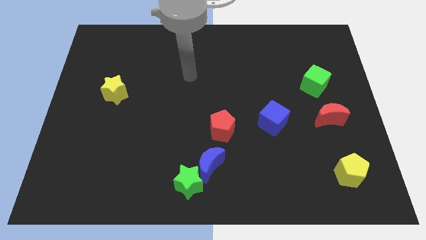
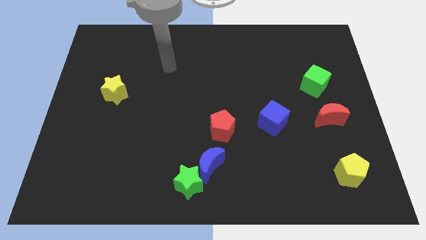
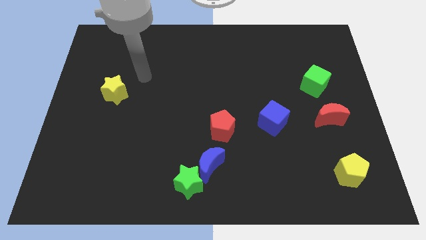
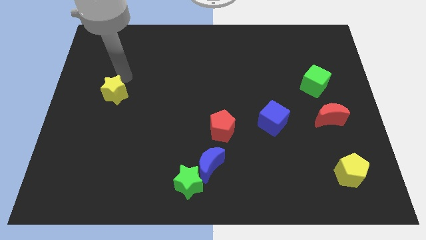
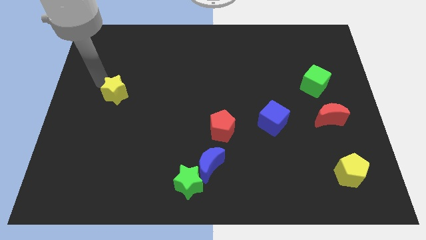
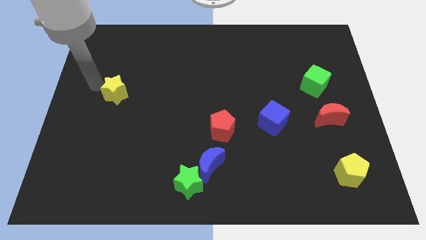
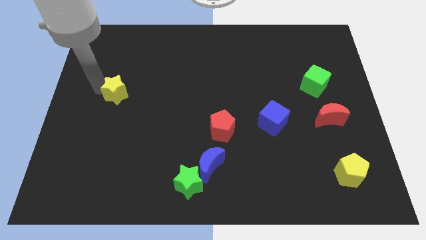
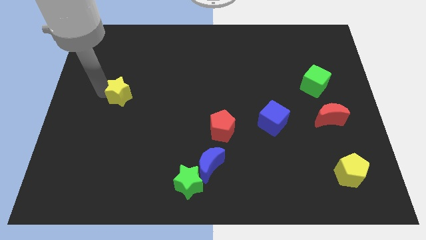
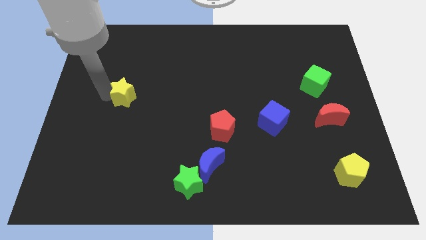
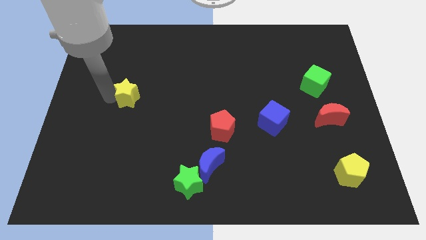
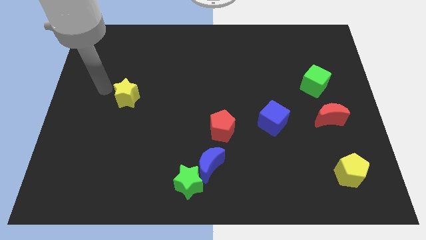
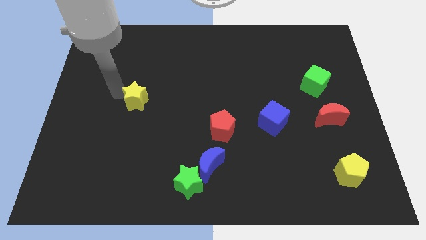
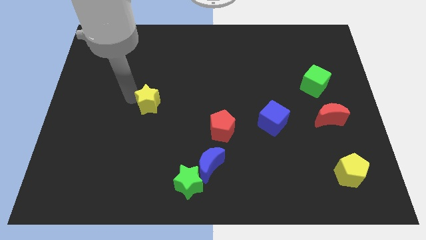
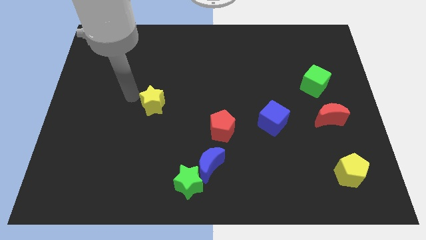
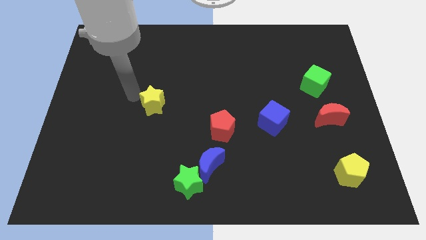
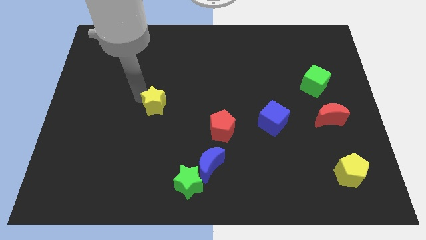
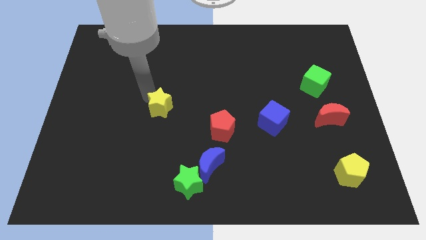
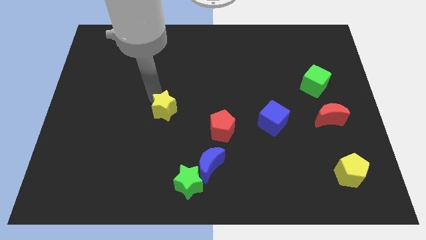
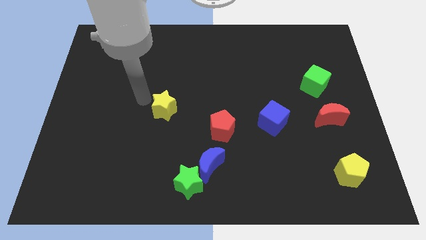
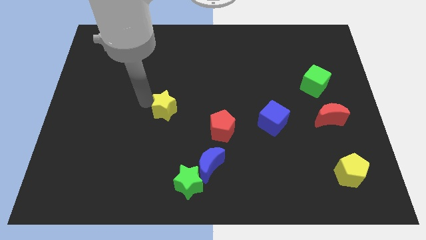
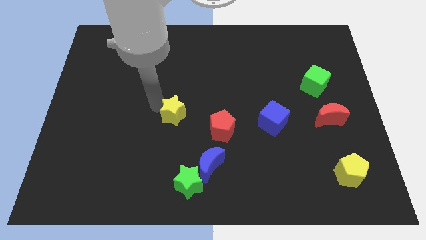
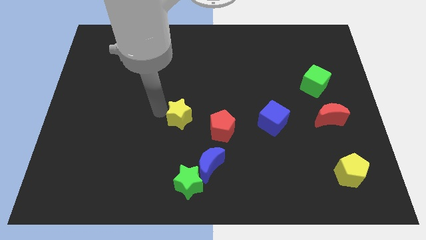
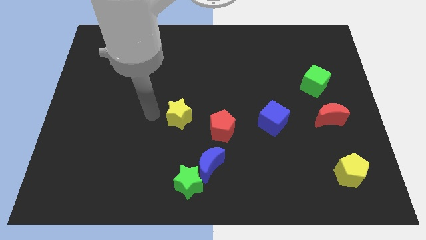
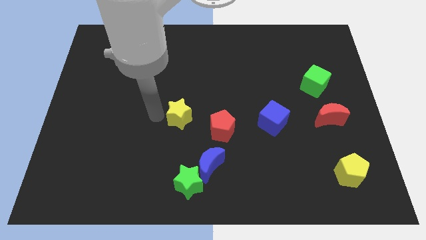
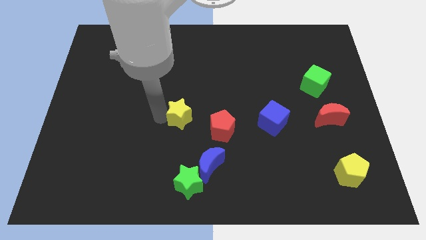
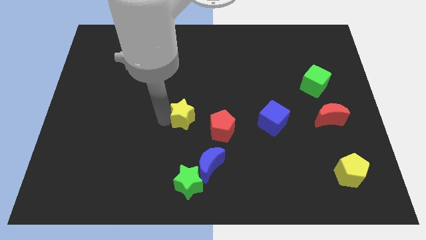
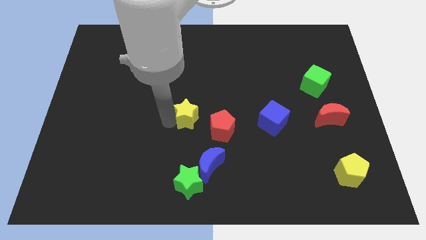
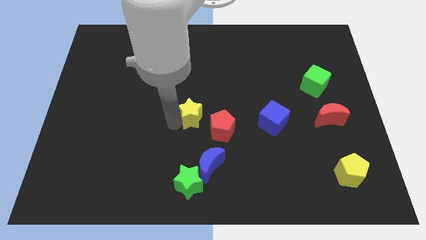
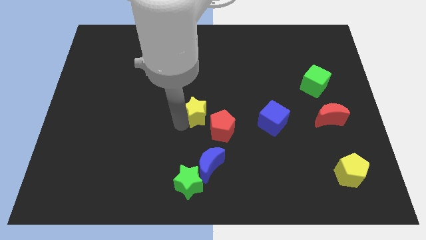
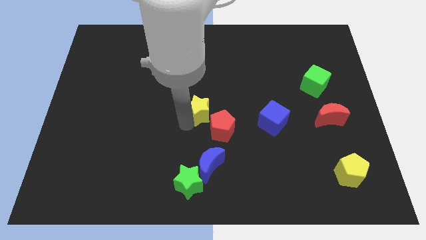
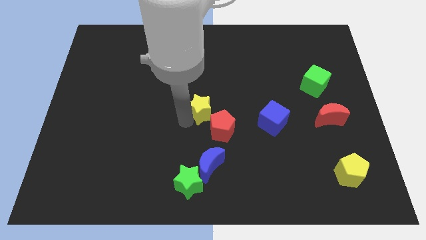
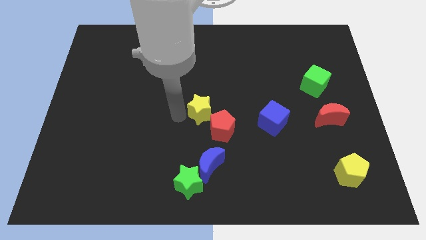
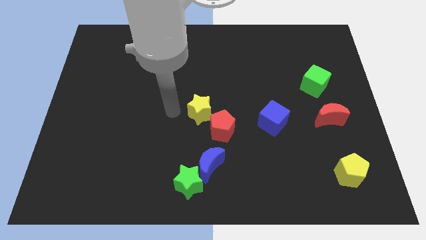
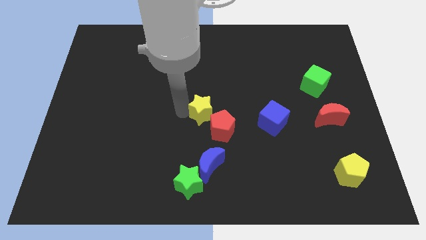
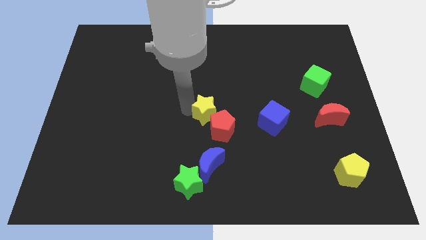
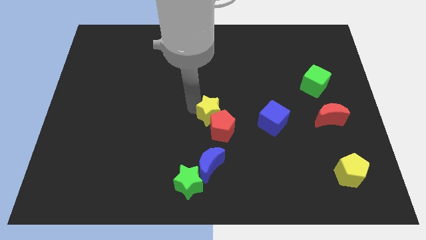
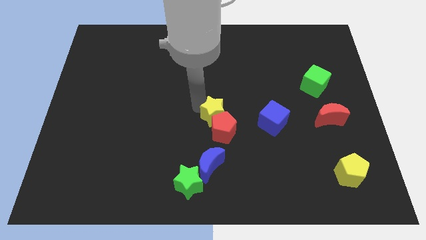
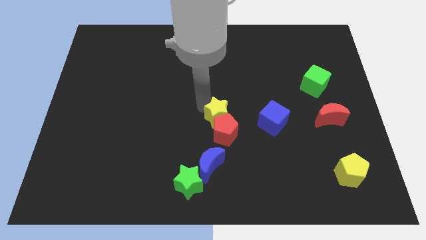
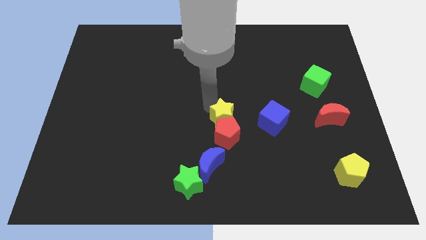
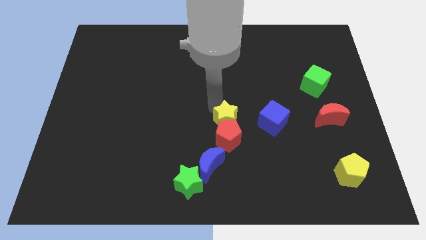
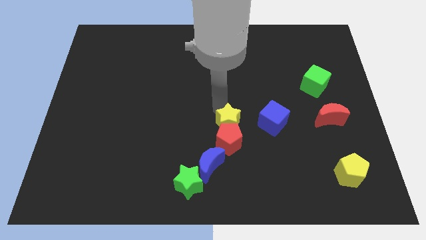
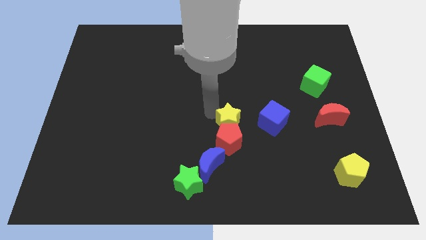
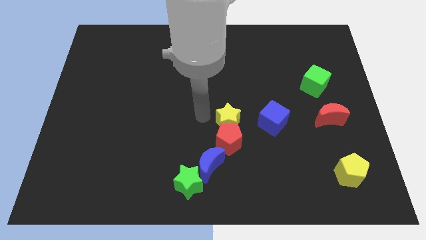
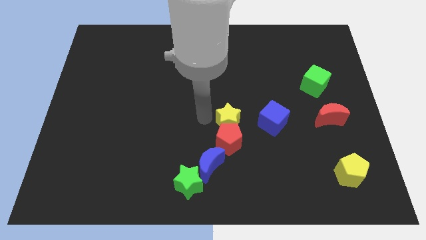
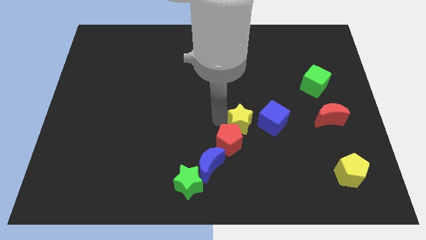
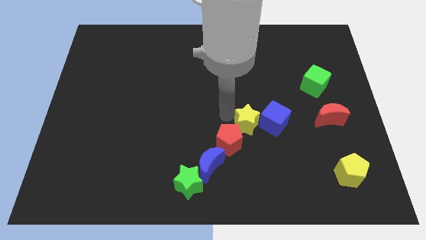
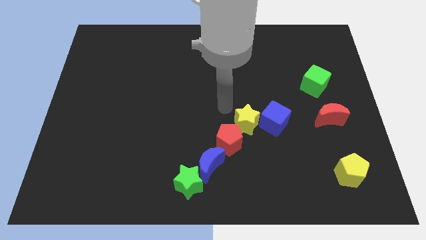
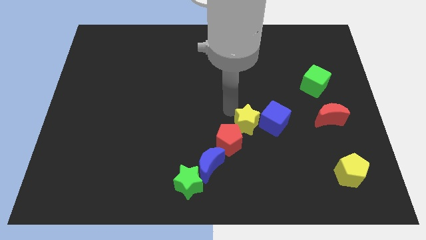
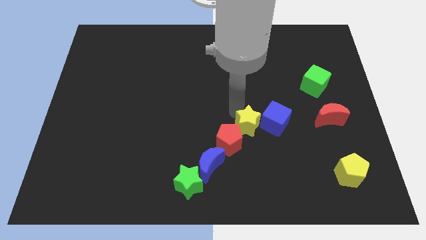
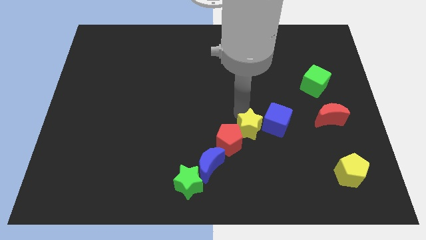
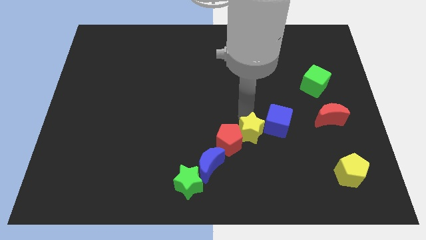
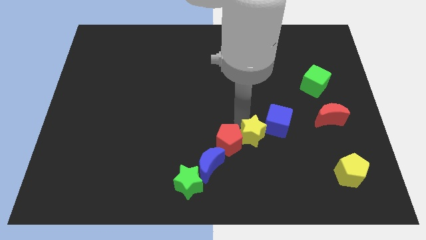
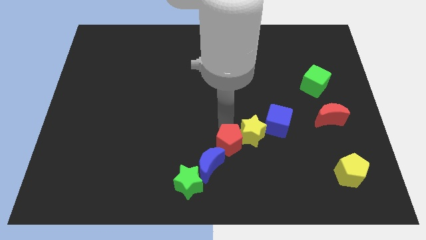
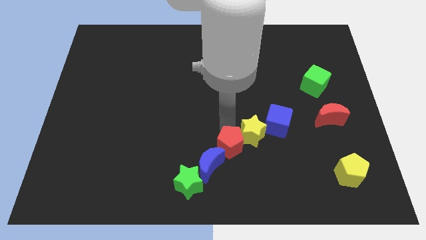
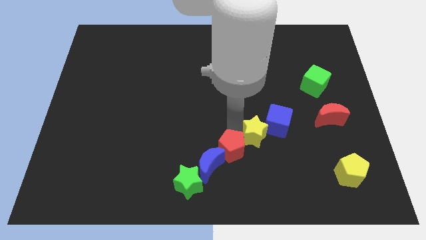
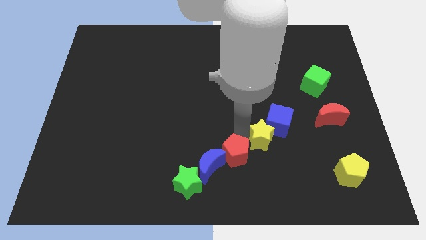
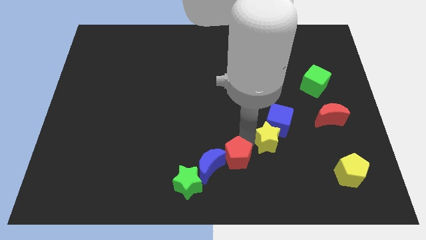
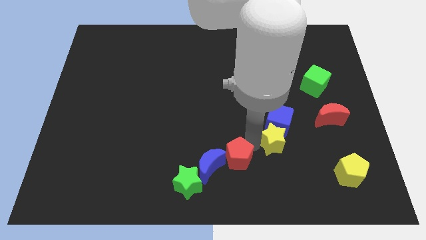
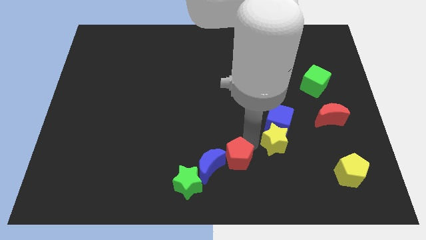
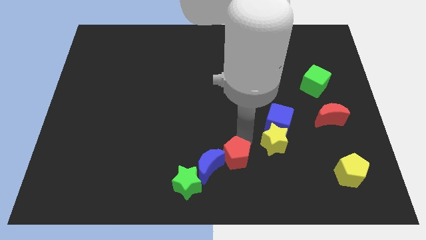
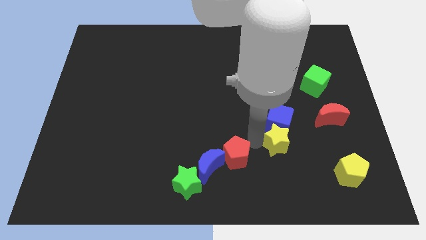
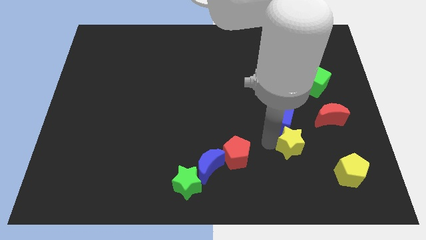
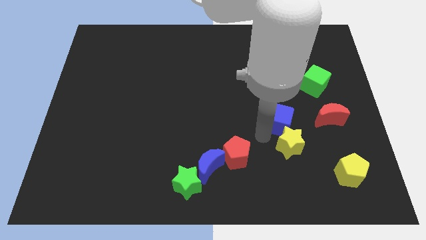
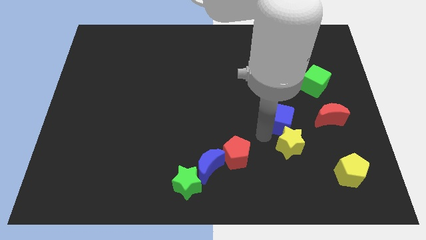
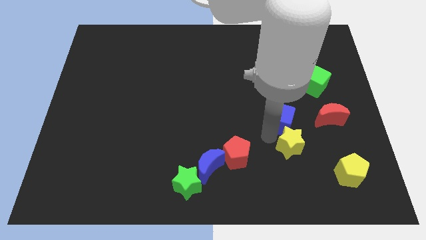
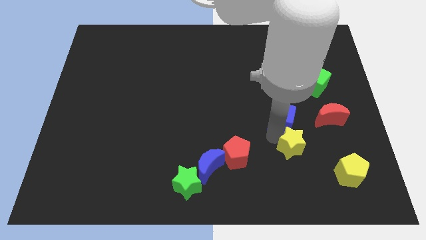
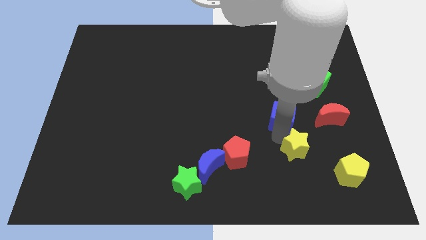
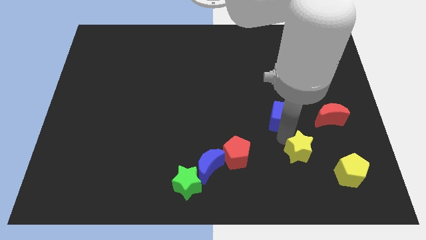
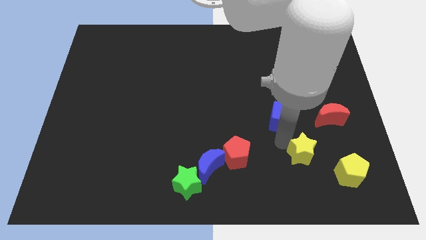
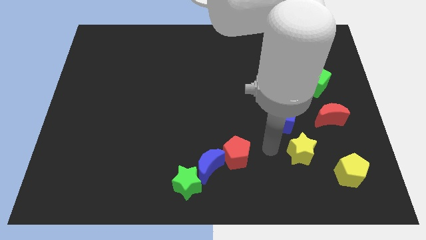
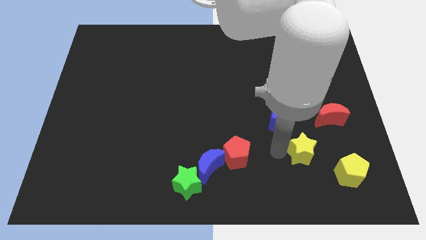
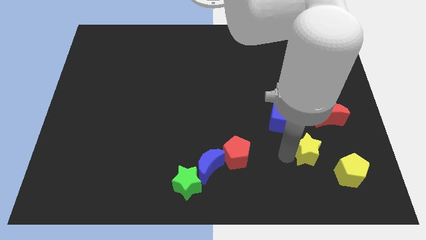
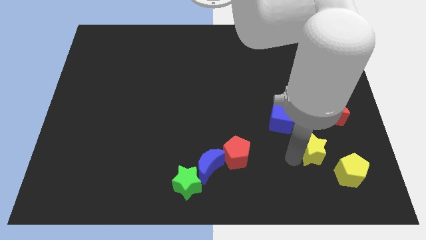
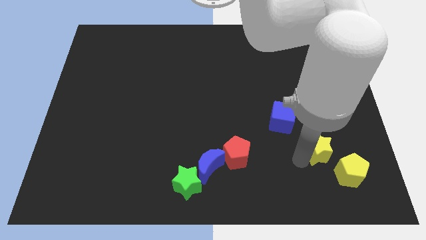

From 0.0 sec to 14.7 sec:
put the yellow star to the bottom side of the red moon

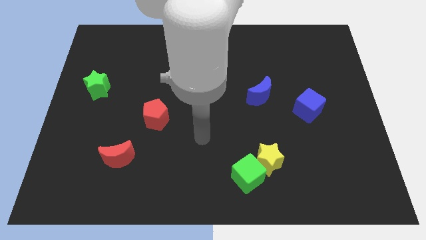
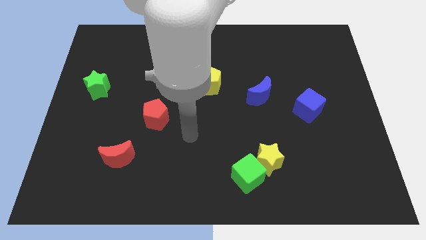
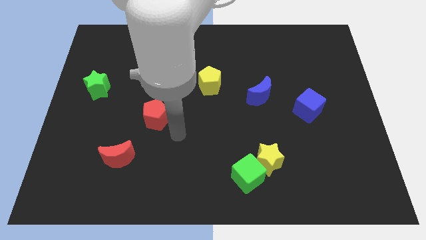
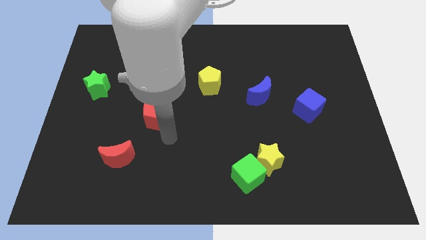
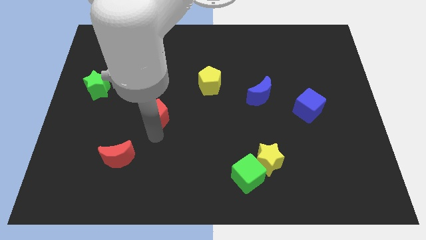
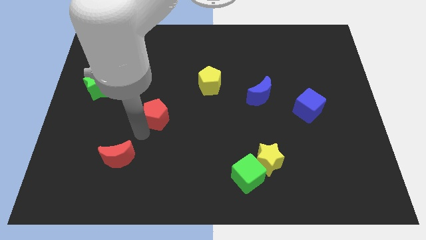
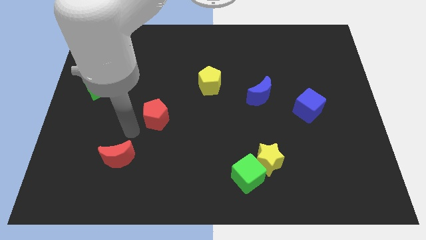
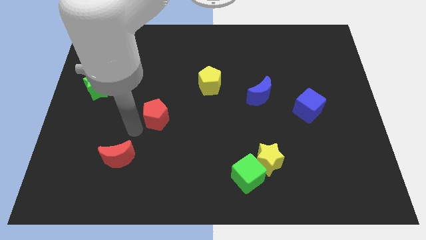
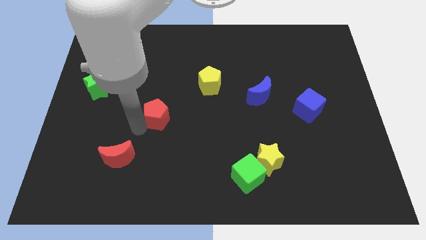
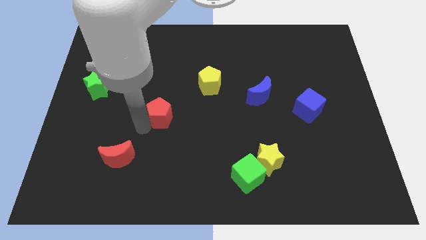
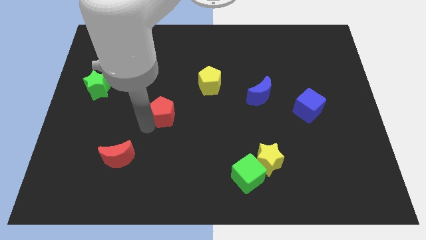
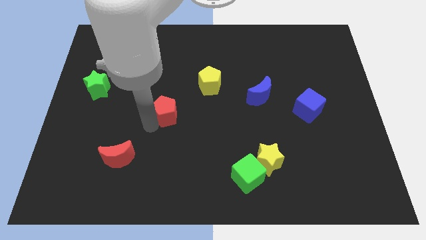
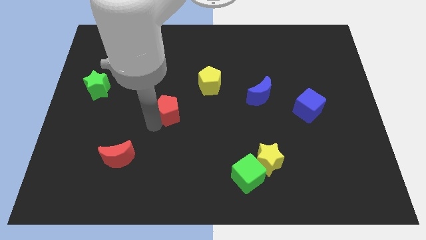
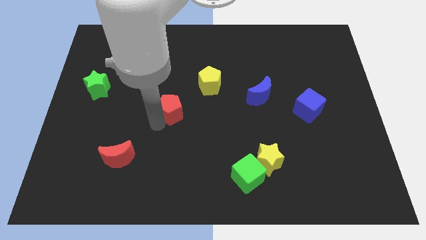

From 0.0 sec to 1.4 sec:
put the red pentagon diagonally down and to the left of the yellow pentagon
